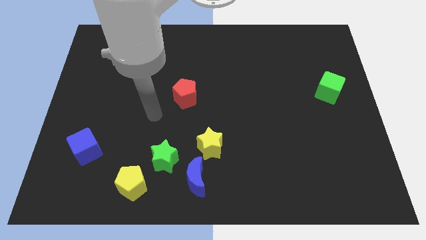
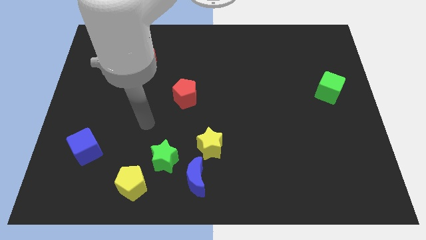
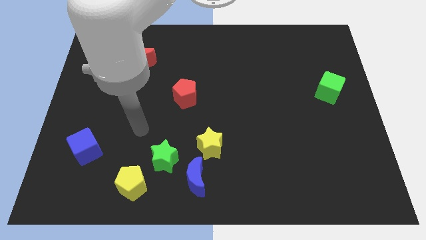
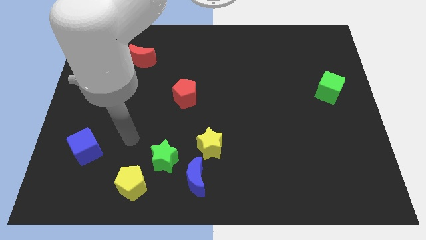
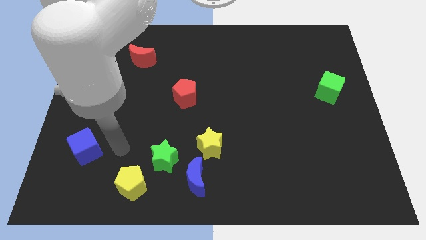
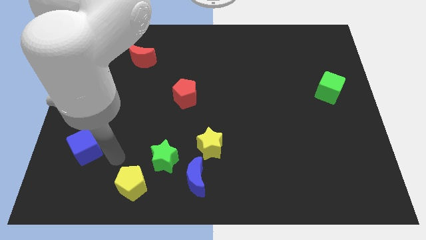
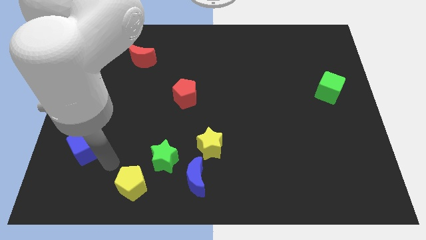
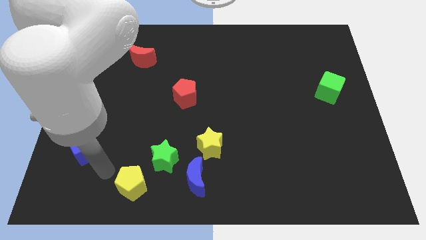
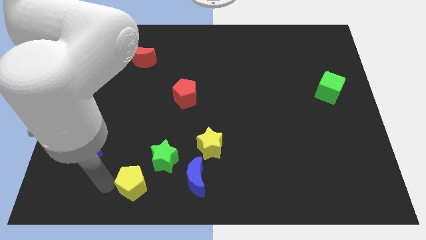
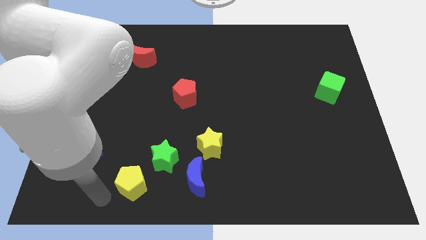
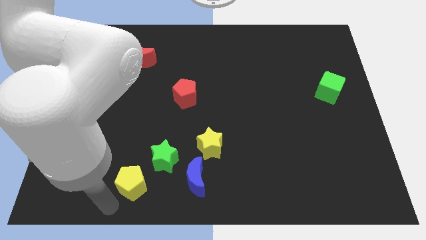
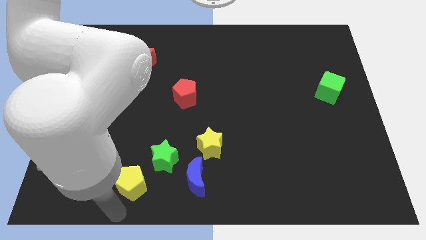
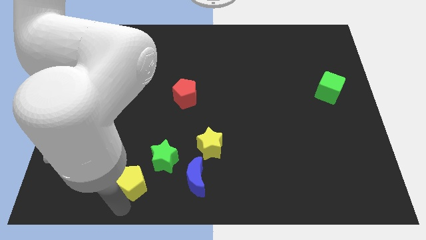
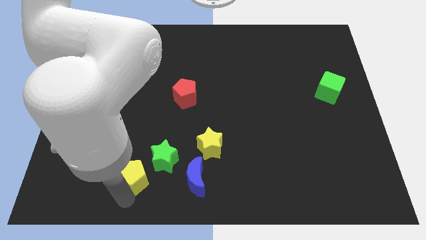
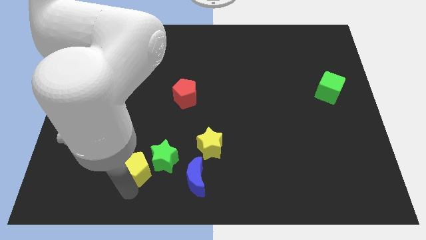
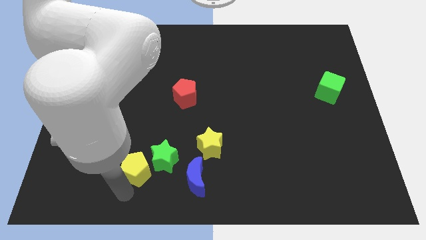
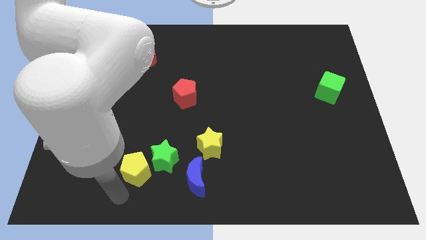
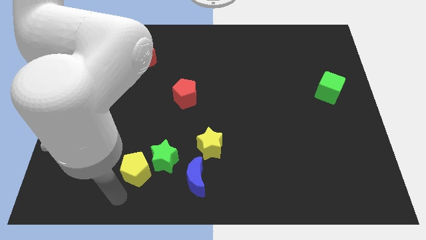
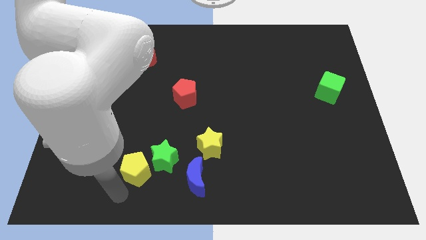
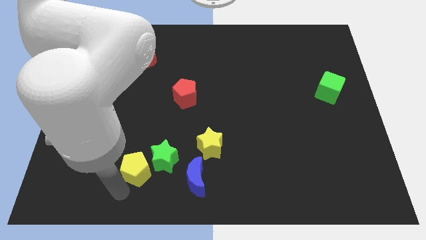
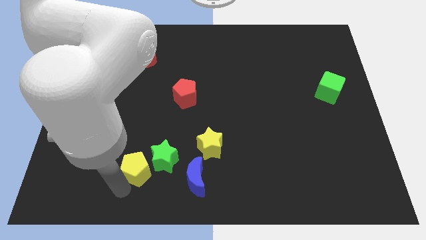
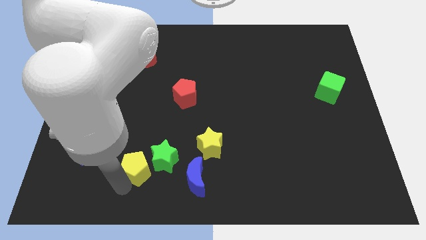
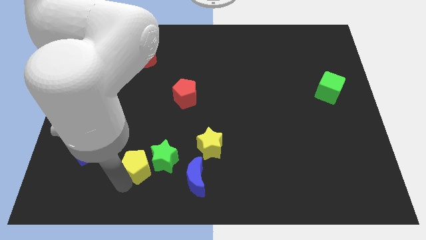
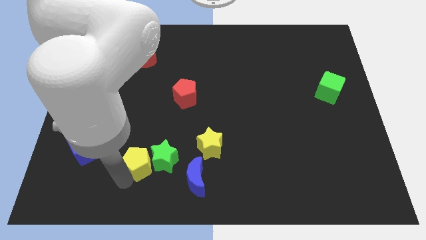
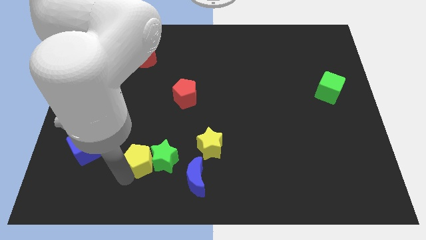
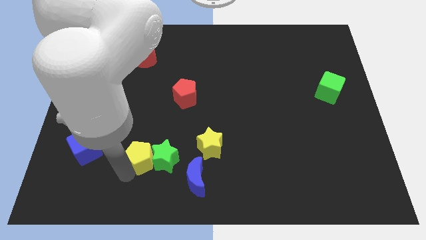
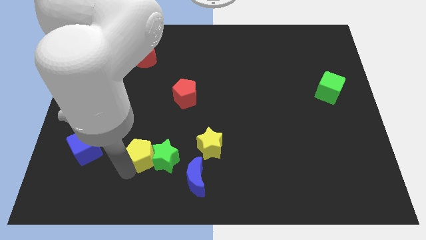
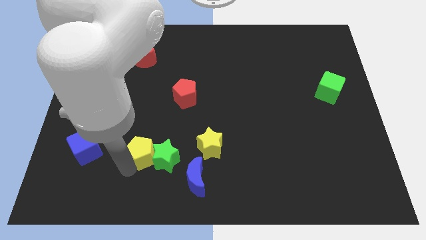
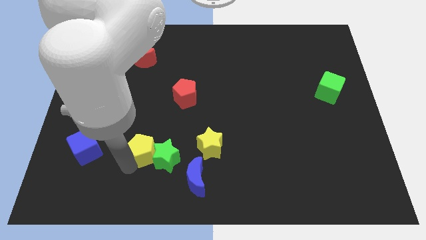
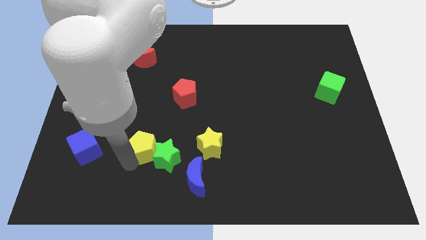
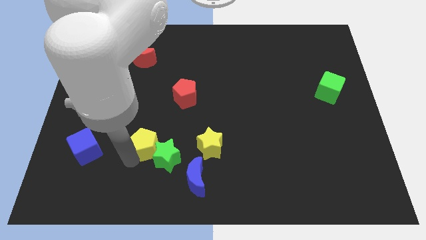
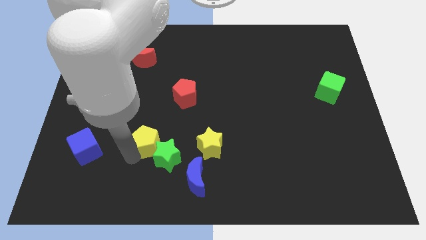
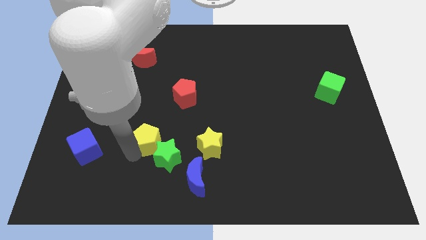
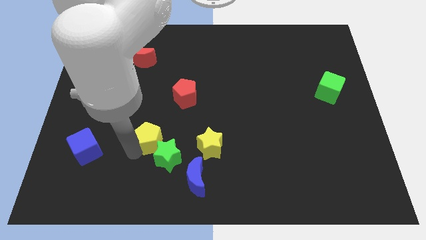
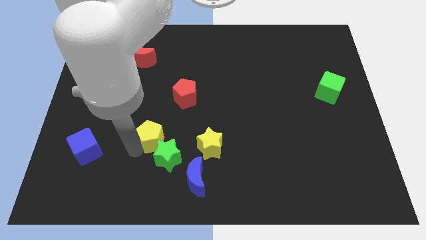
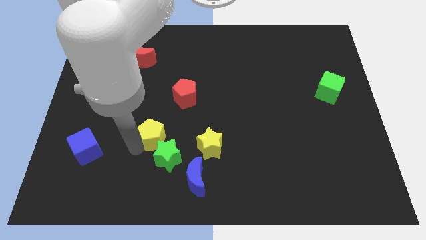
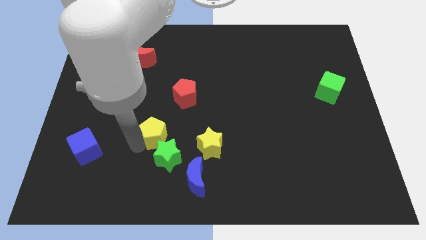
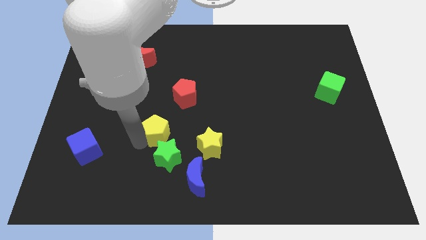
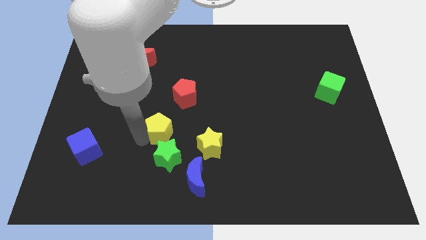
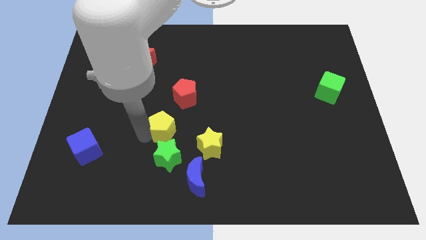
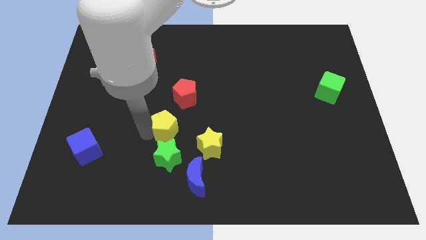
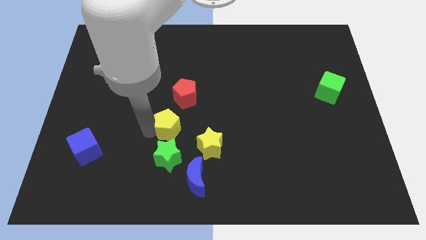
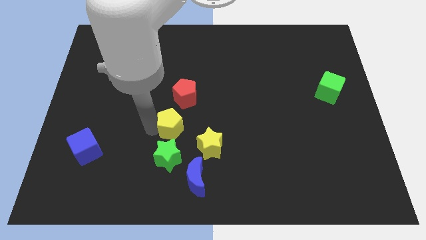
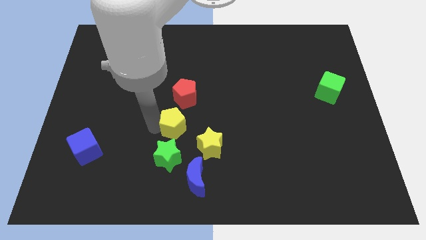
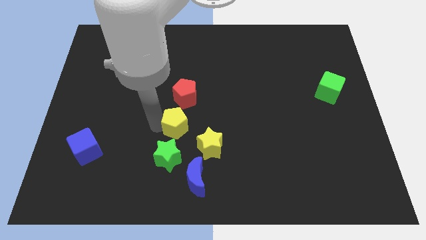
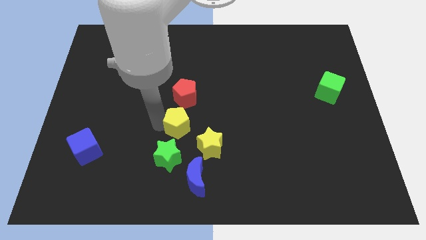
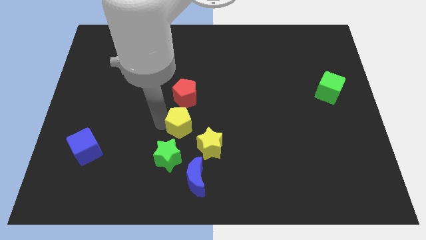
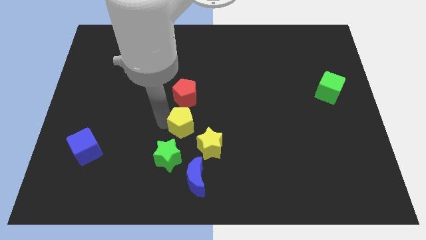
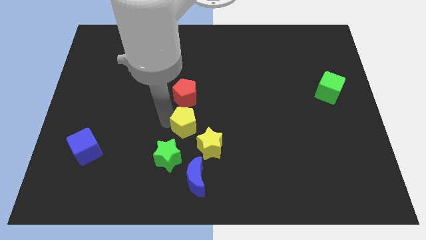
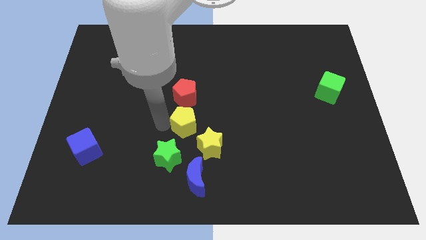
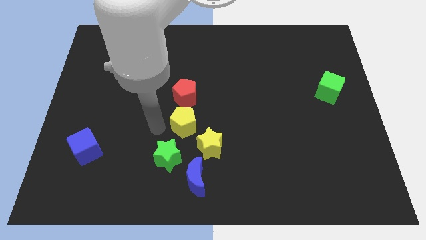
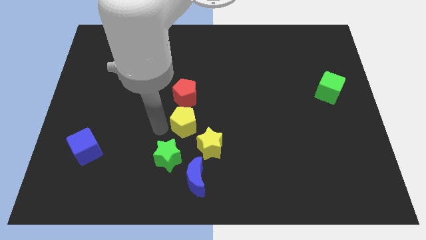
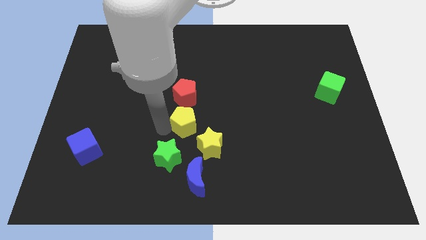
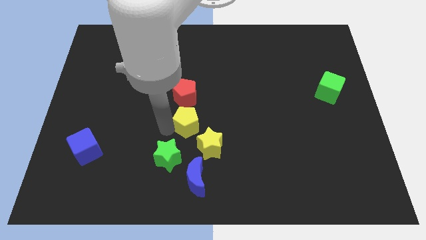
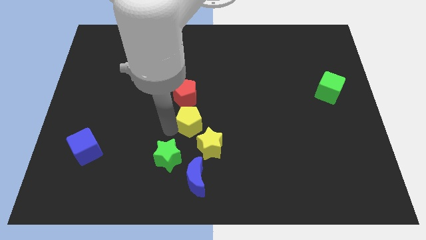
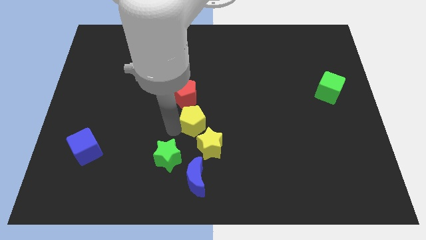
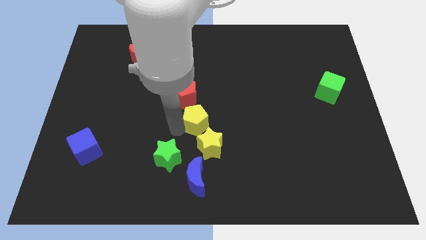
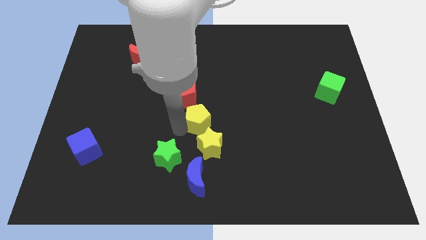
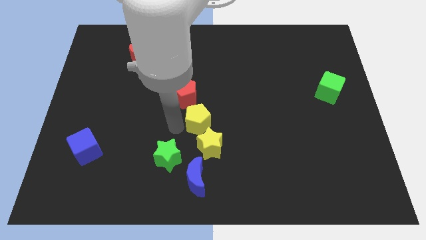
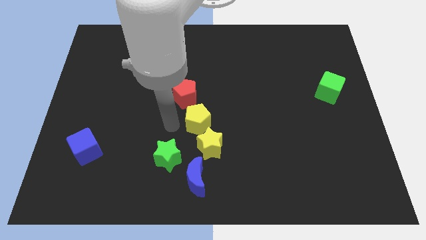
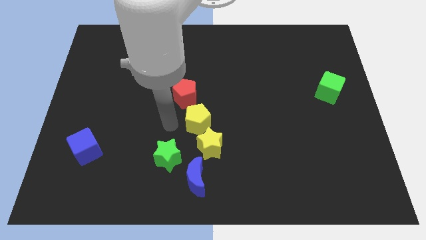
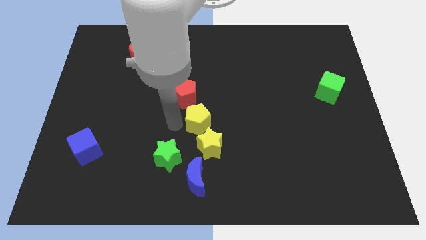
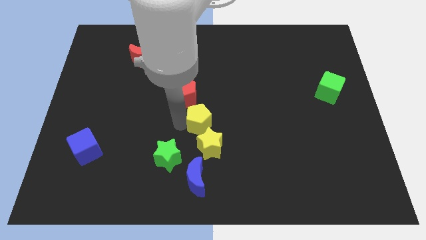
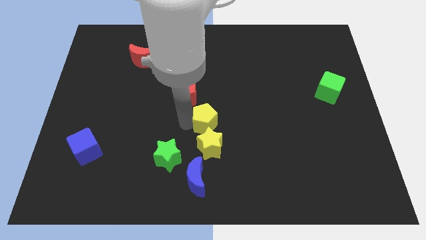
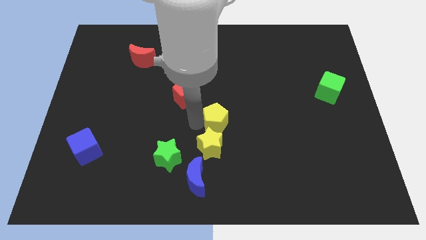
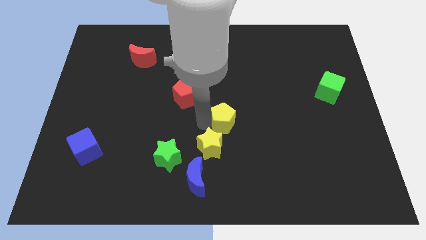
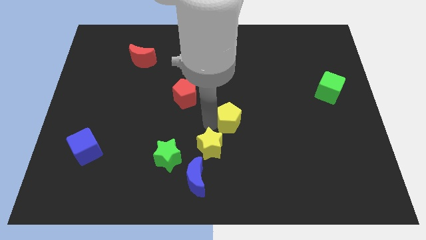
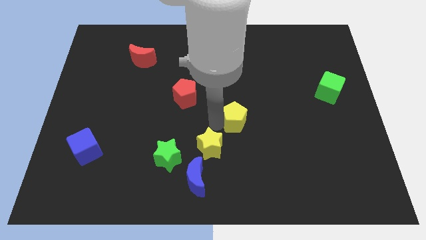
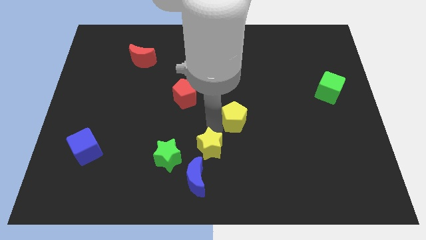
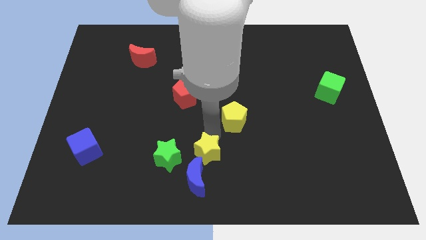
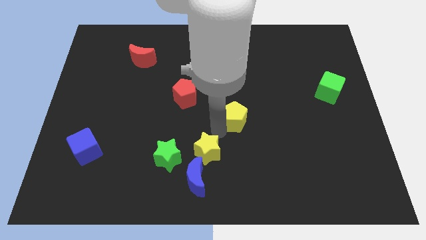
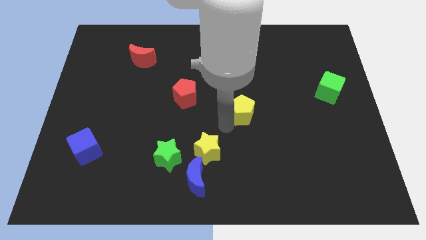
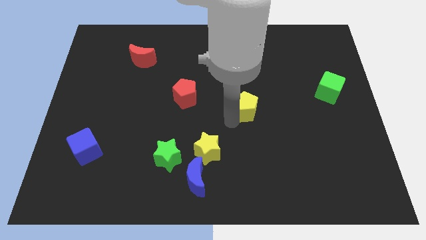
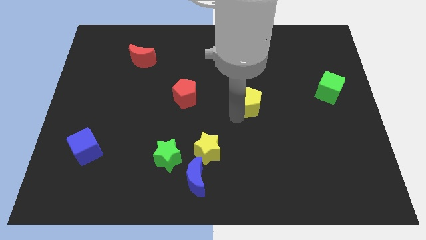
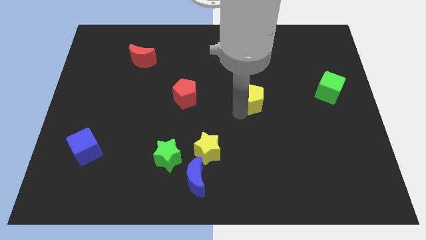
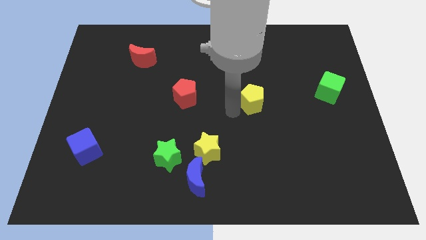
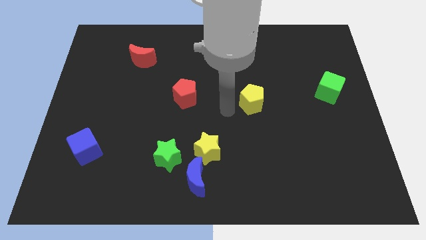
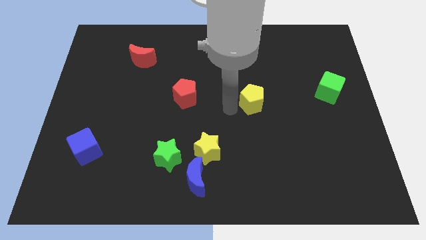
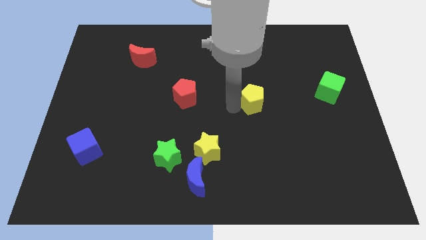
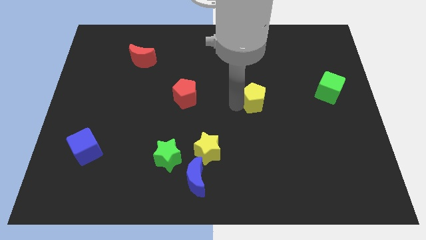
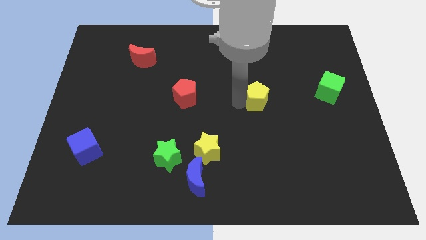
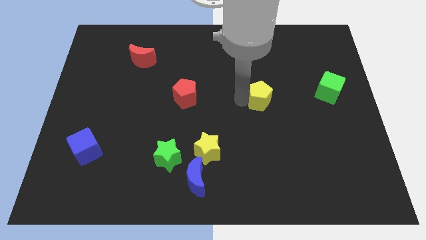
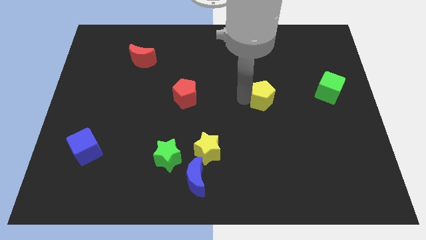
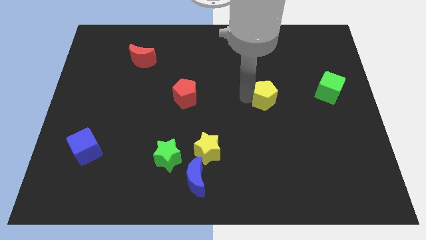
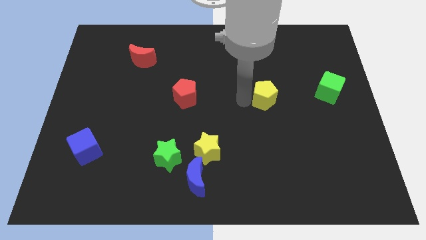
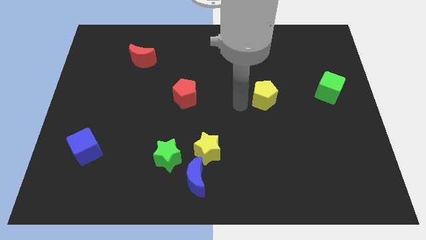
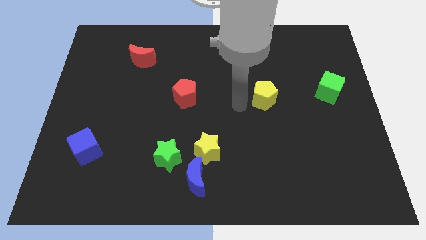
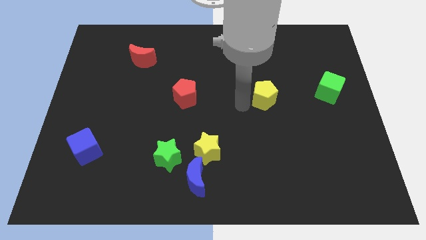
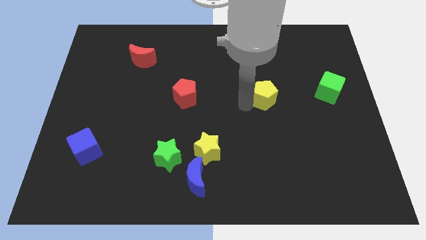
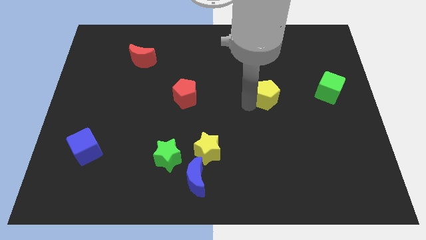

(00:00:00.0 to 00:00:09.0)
push the yellow pentagon just left of the green cube
